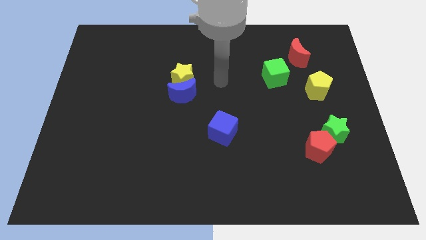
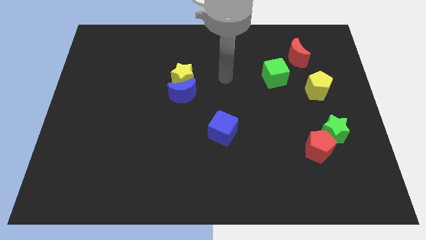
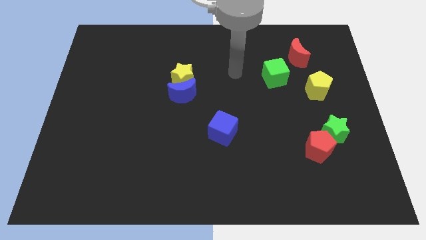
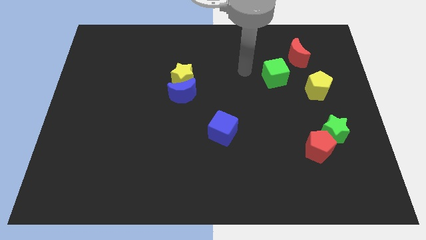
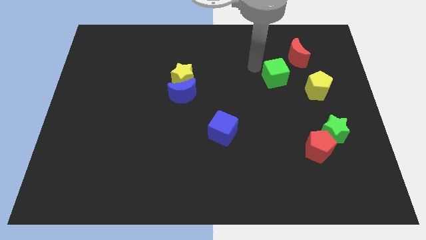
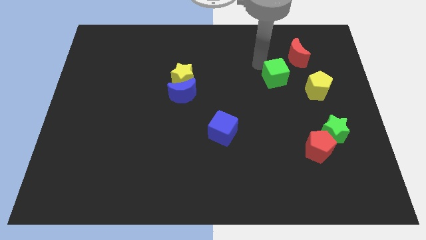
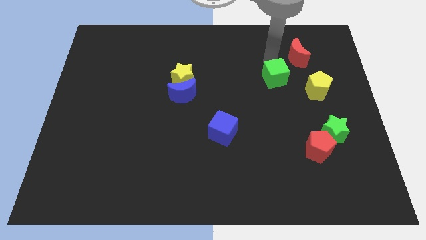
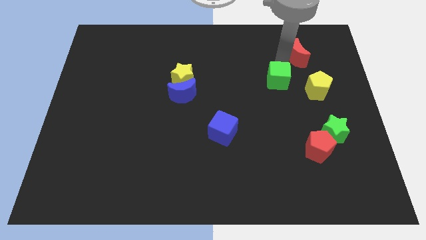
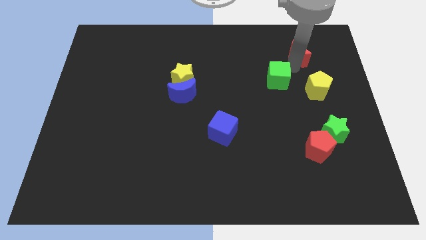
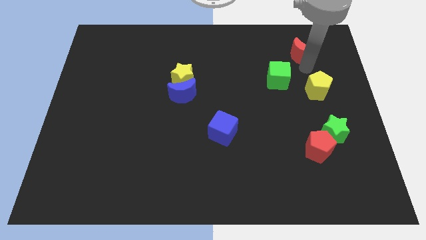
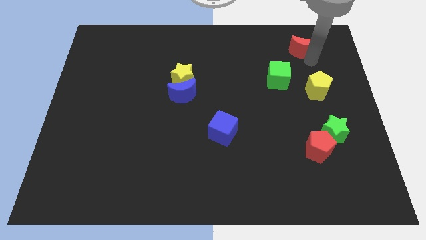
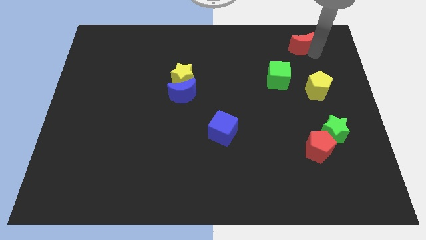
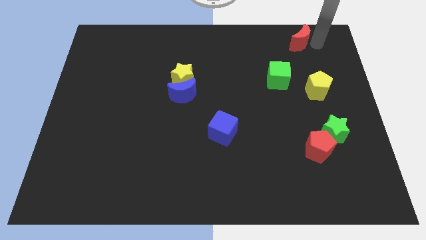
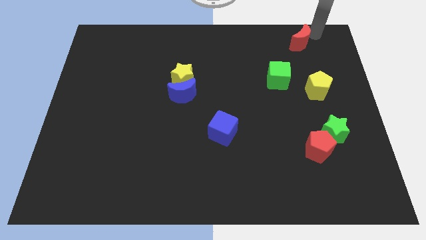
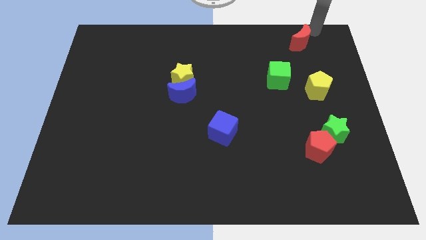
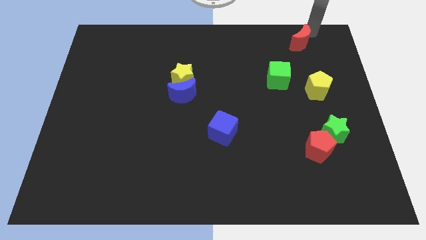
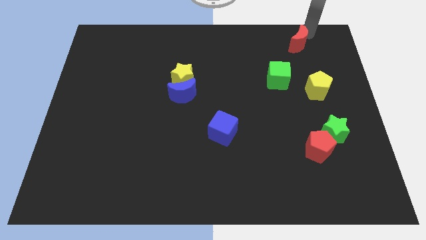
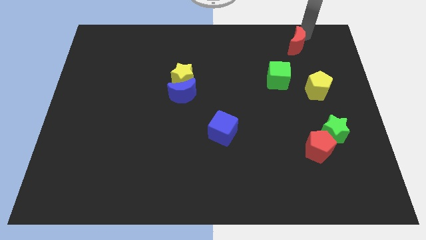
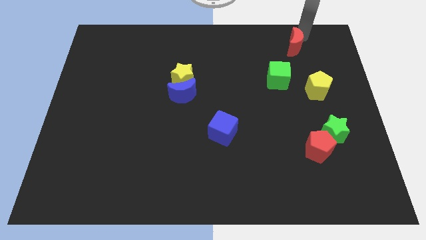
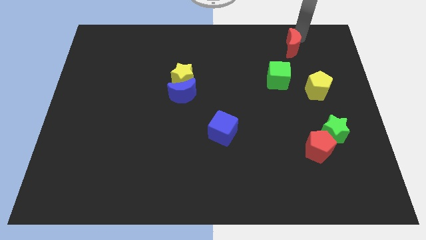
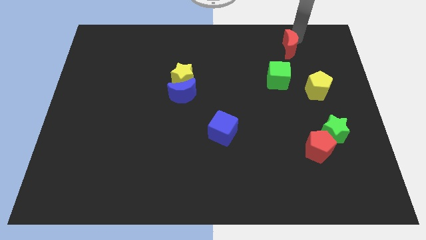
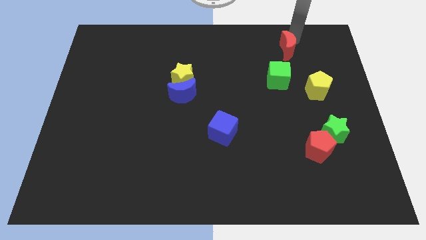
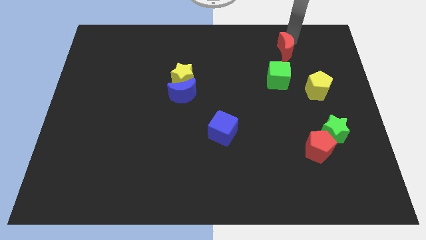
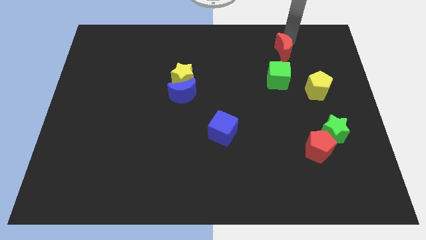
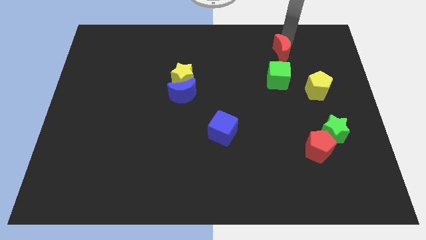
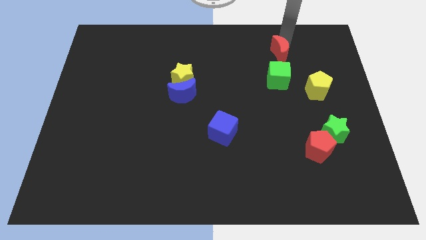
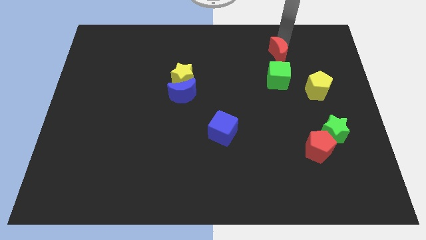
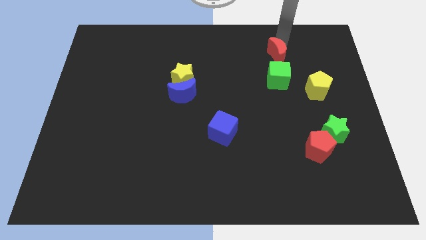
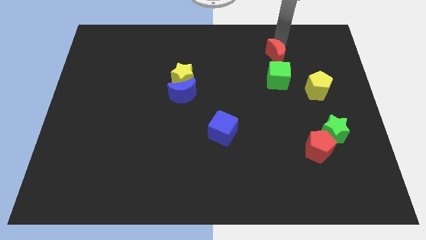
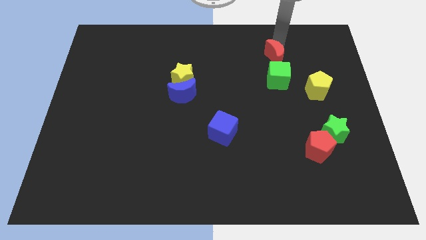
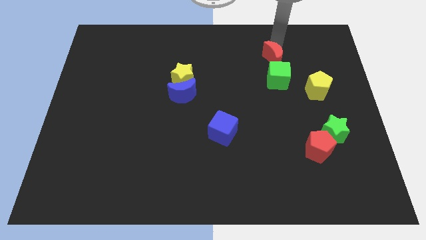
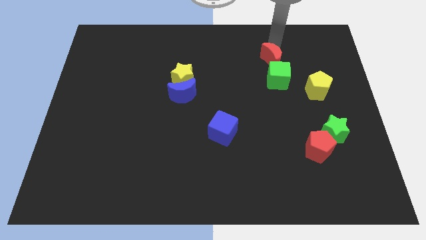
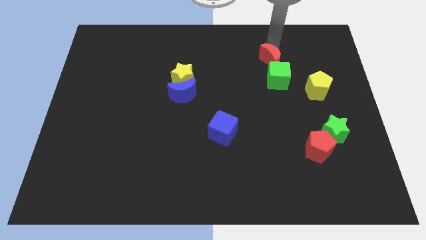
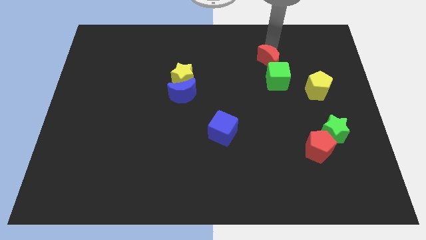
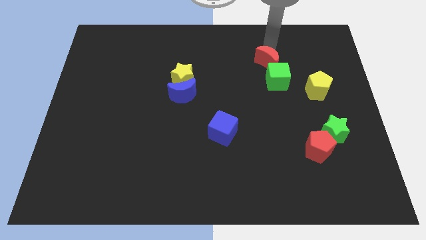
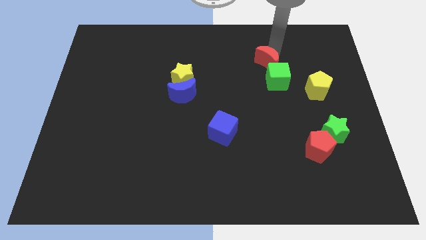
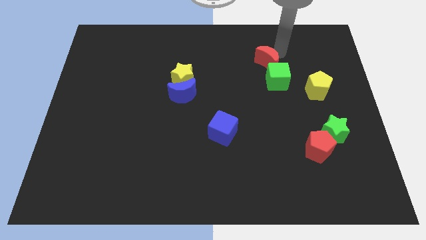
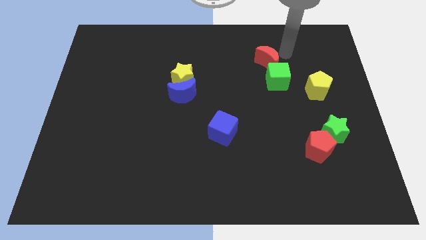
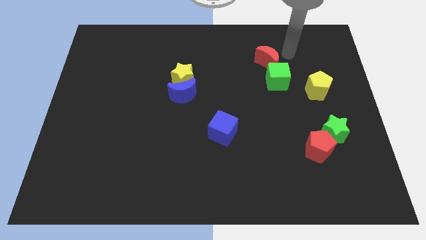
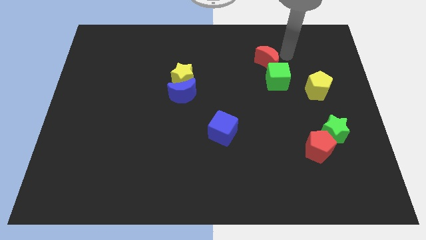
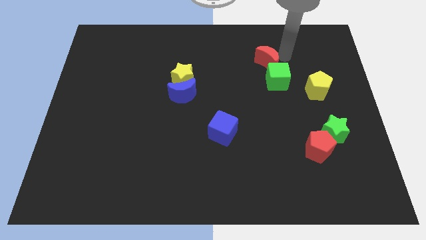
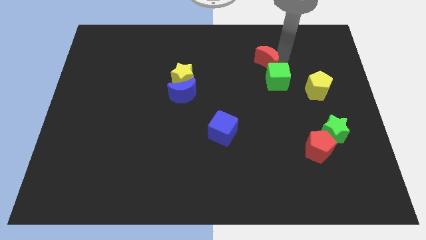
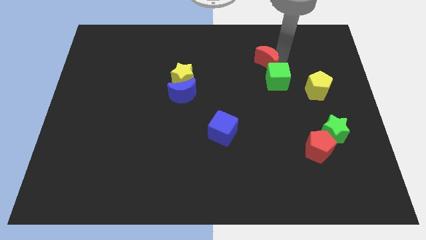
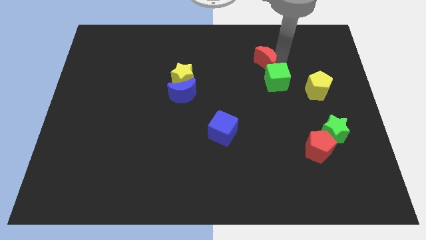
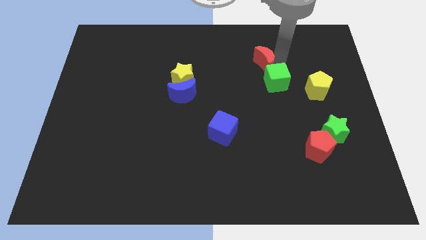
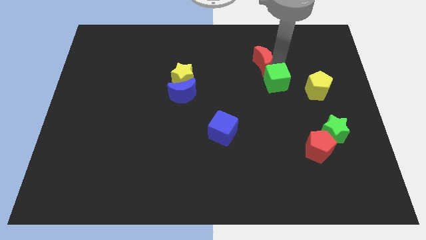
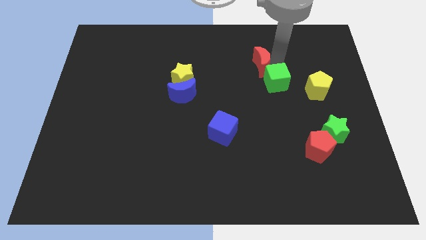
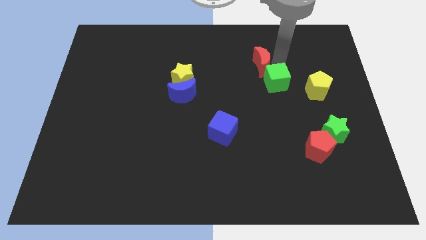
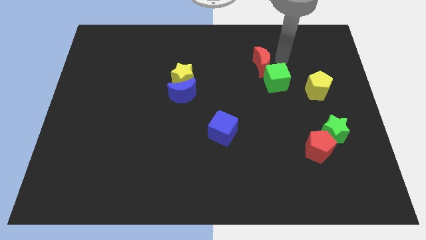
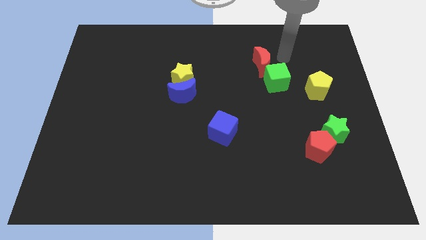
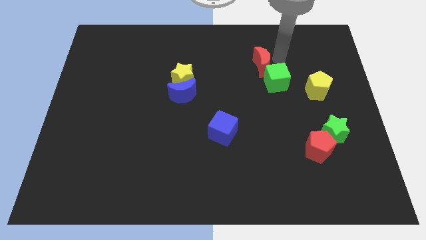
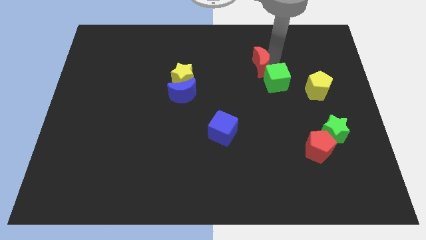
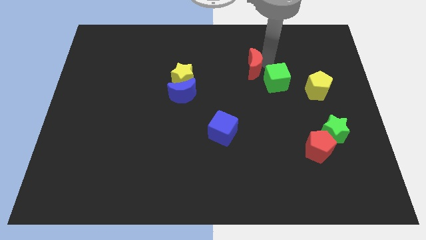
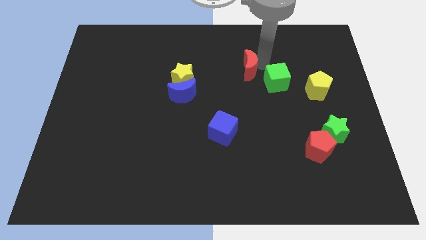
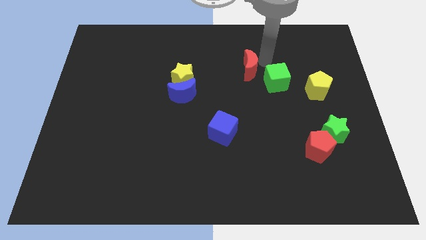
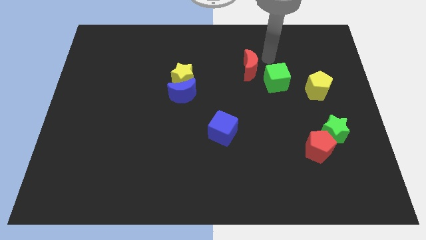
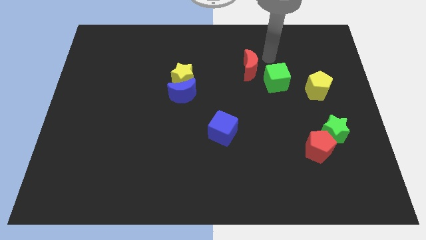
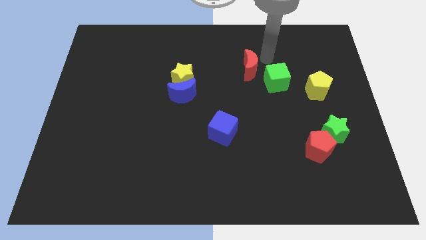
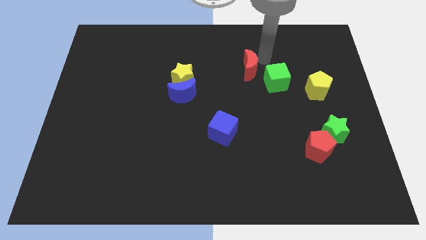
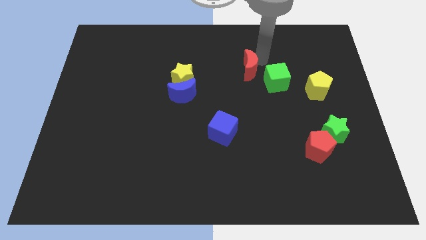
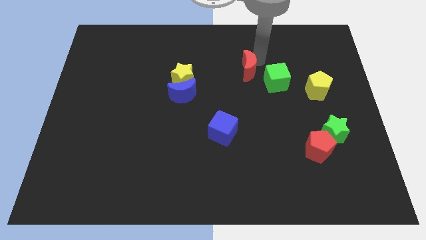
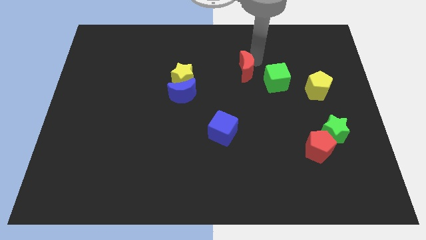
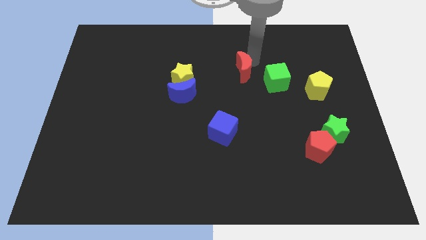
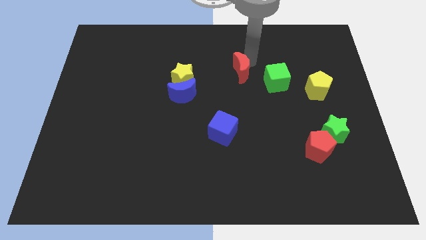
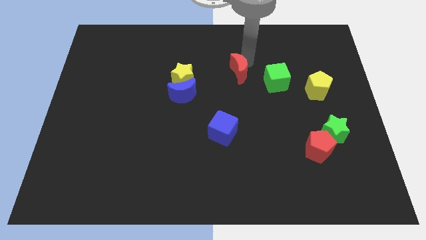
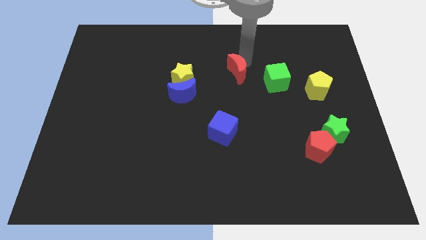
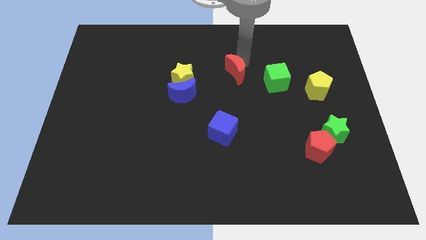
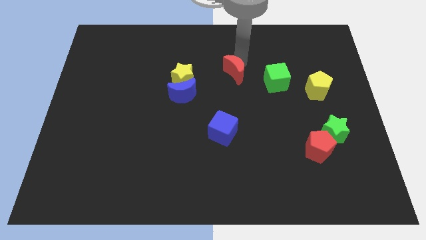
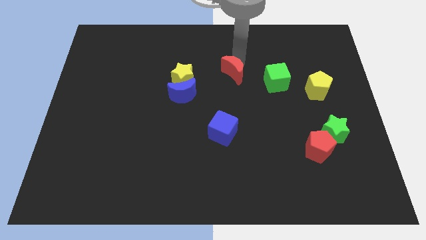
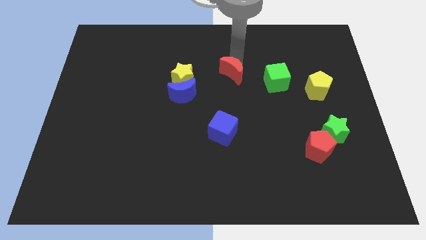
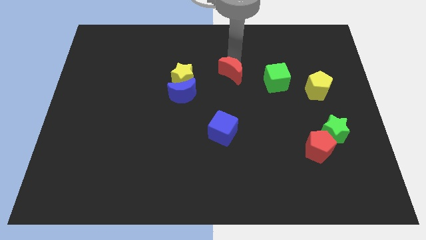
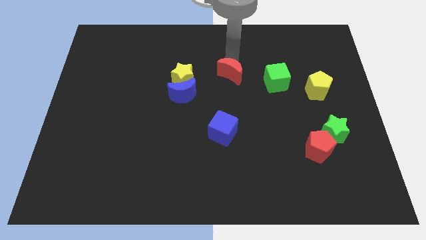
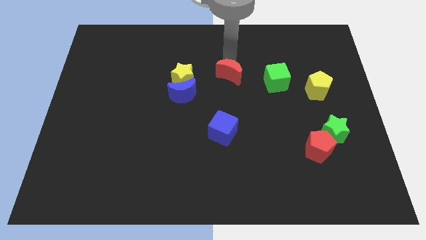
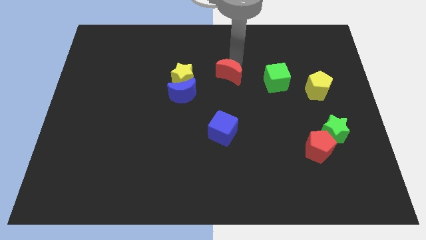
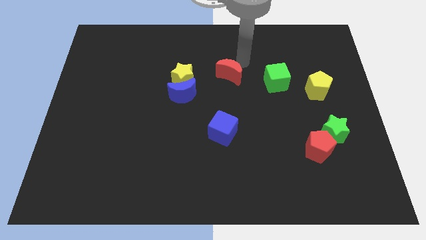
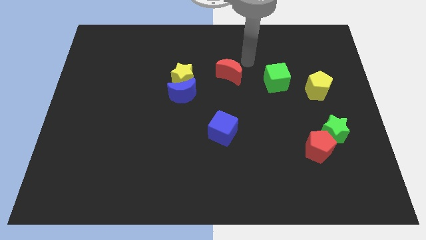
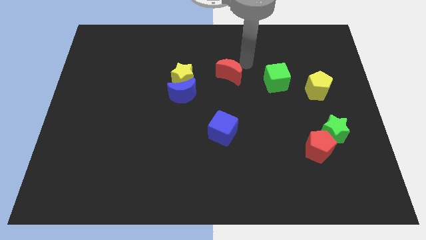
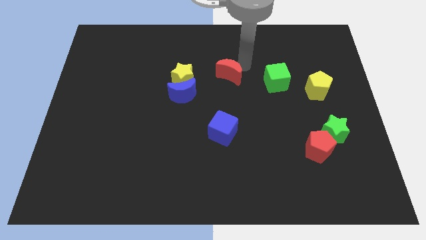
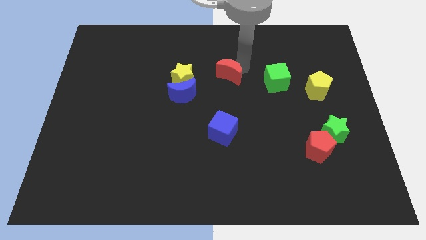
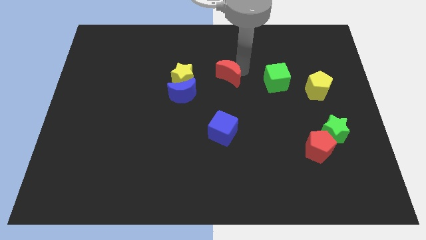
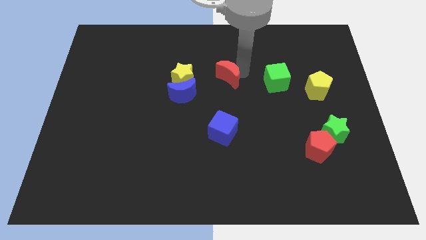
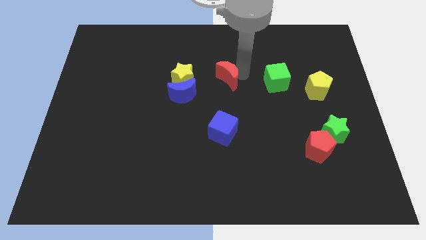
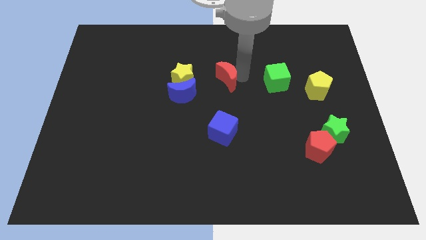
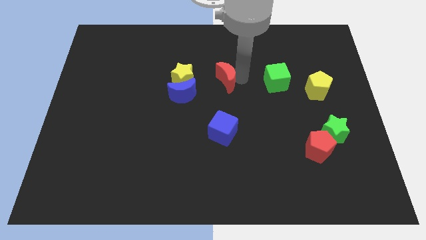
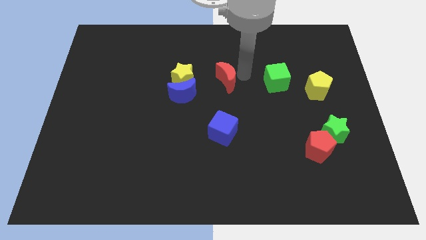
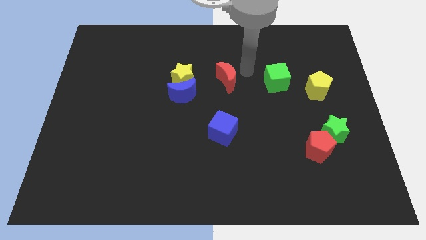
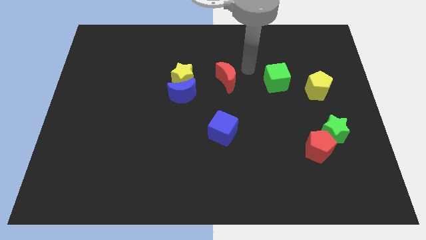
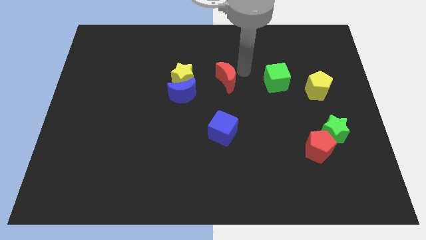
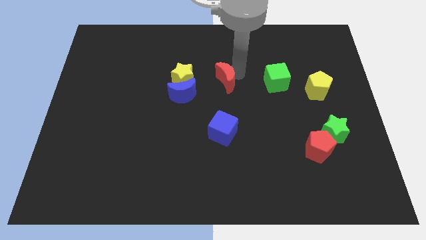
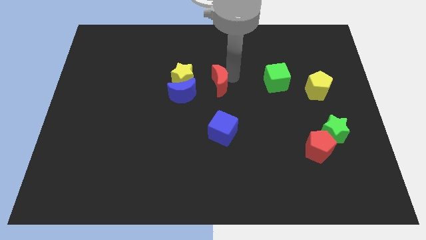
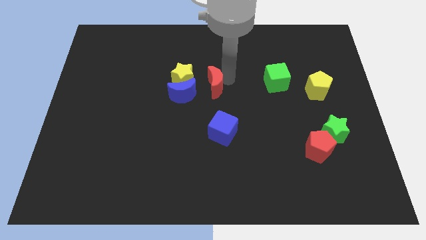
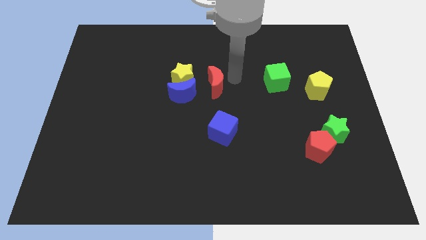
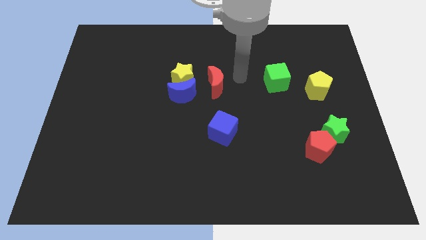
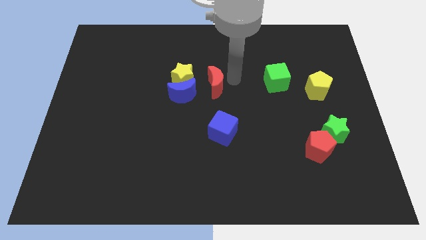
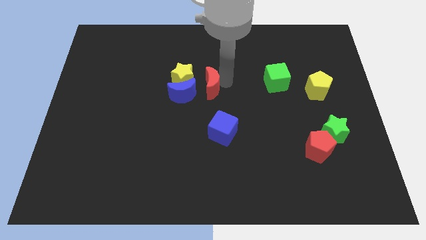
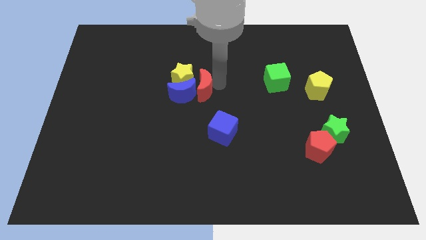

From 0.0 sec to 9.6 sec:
move the red moon towards the blue moon
